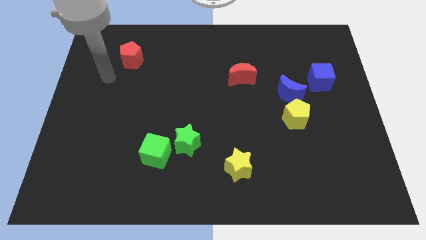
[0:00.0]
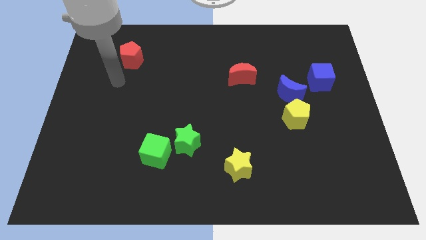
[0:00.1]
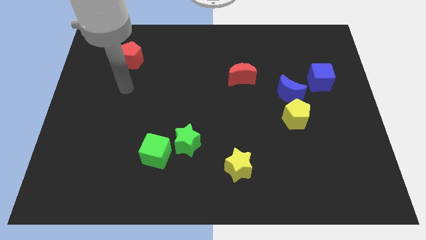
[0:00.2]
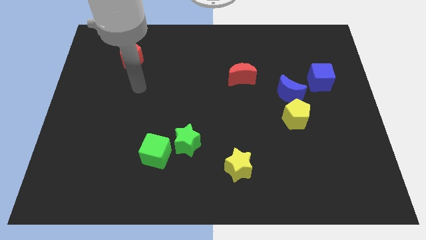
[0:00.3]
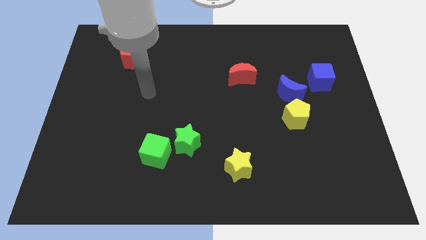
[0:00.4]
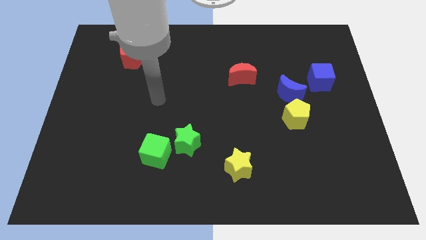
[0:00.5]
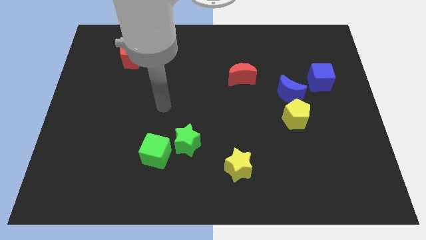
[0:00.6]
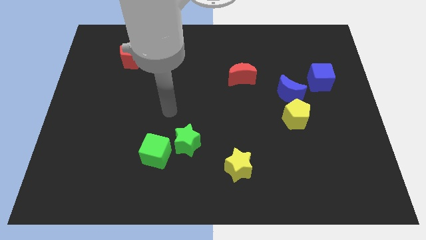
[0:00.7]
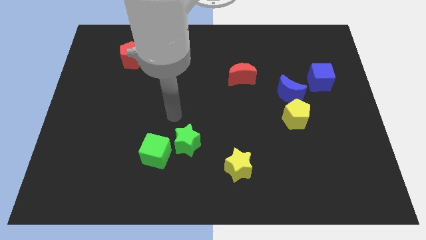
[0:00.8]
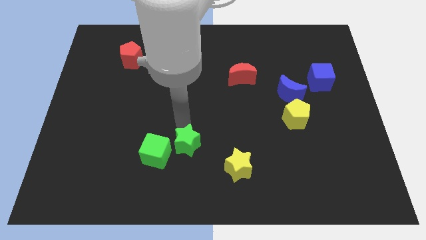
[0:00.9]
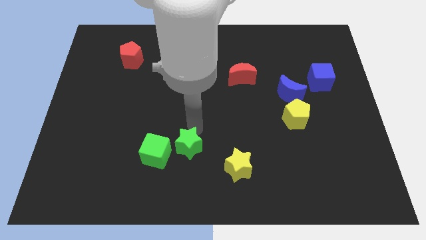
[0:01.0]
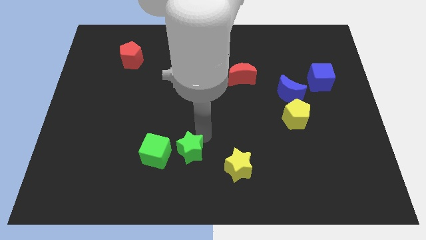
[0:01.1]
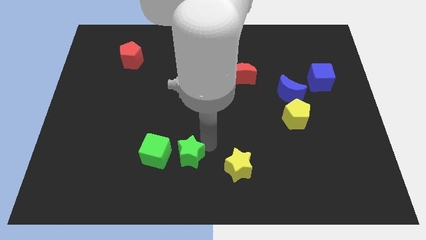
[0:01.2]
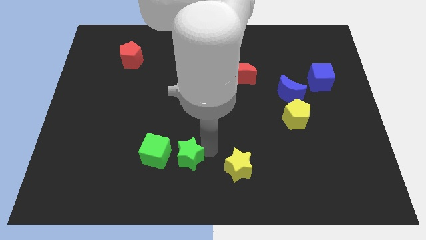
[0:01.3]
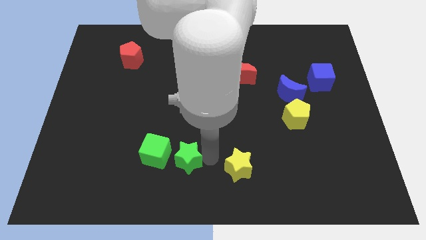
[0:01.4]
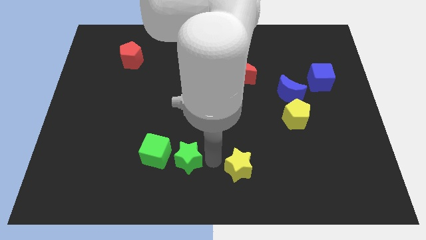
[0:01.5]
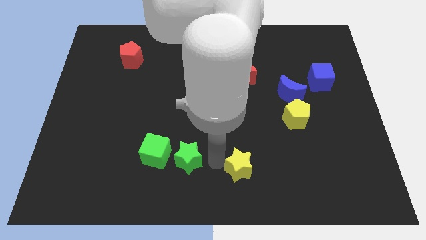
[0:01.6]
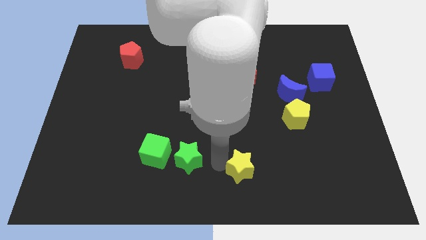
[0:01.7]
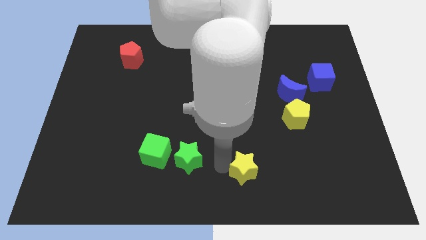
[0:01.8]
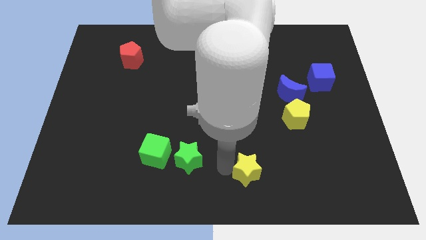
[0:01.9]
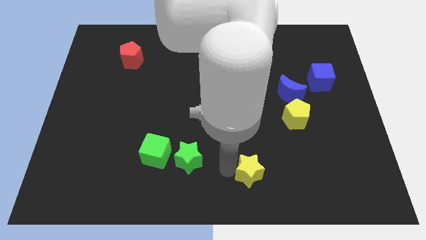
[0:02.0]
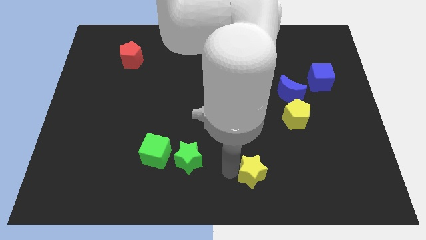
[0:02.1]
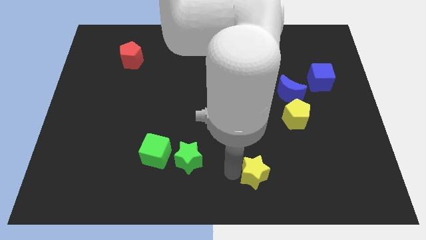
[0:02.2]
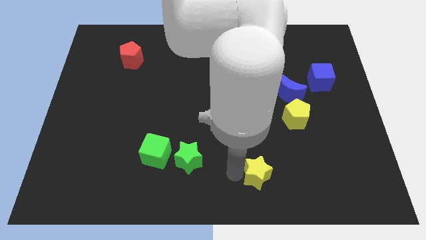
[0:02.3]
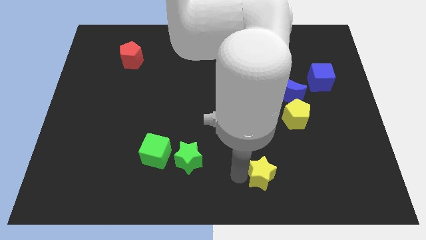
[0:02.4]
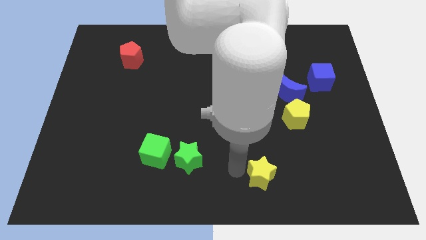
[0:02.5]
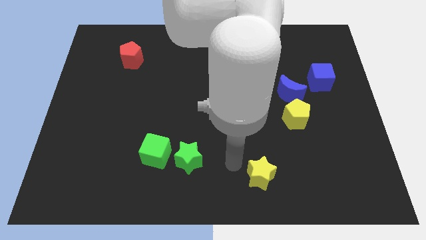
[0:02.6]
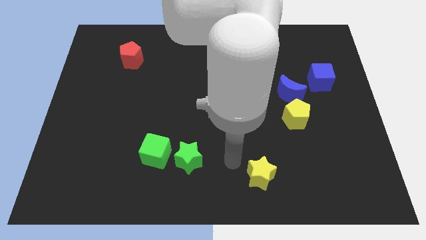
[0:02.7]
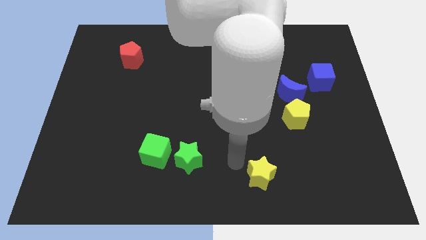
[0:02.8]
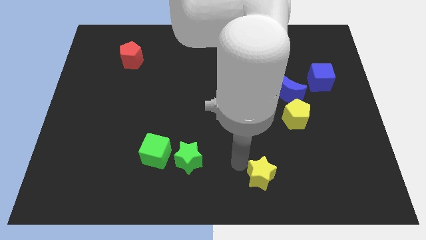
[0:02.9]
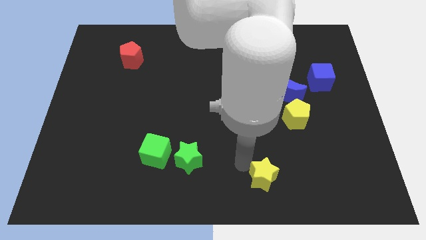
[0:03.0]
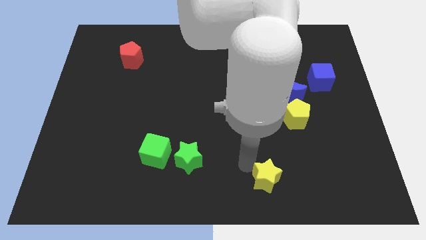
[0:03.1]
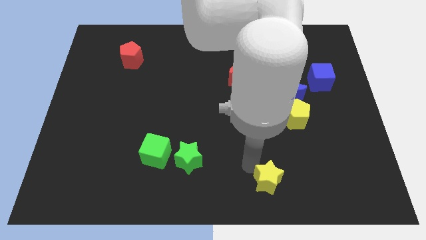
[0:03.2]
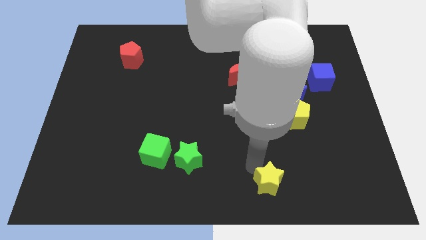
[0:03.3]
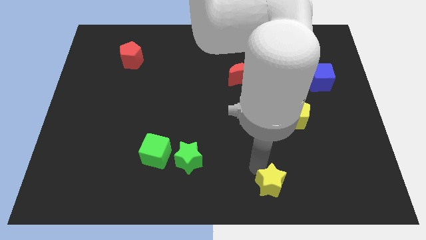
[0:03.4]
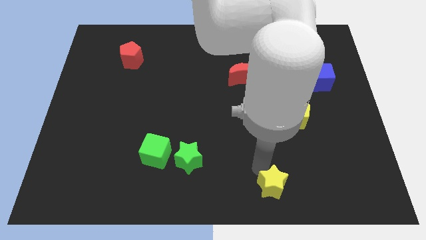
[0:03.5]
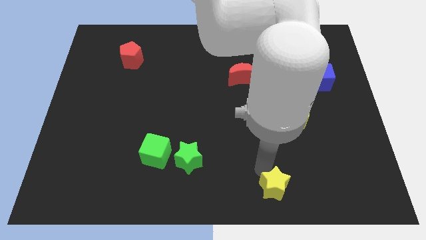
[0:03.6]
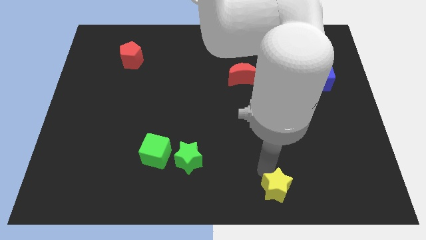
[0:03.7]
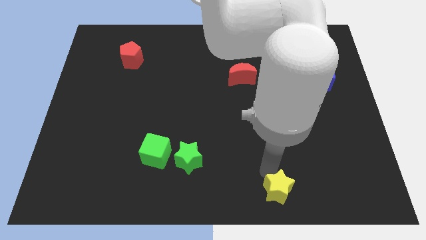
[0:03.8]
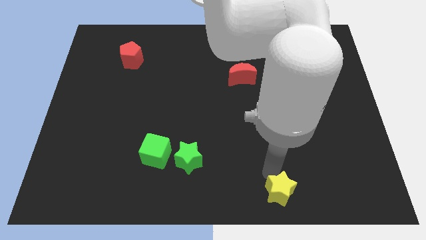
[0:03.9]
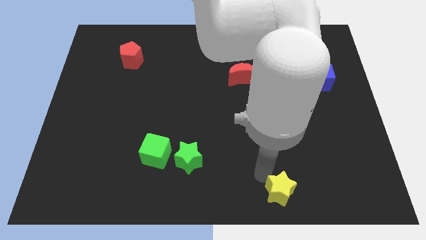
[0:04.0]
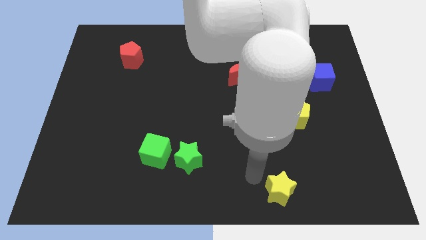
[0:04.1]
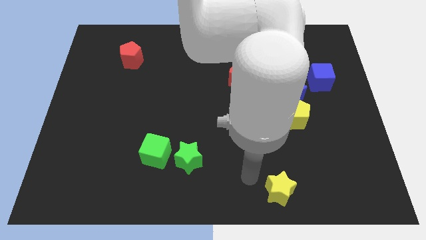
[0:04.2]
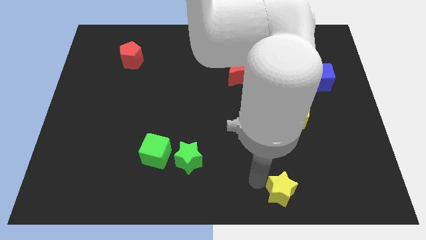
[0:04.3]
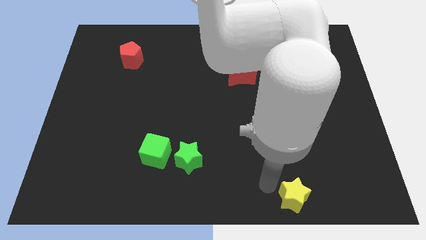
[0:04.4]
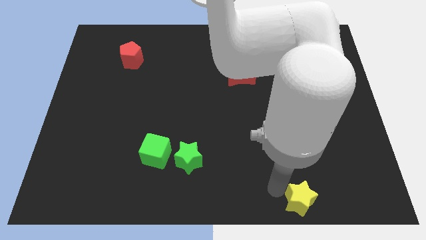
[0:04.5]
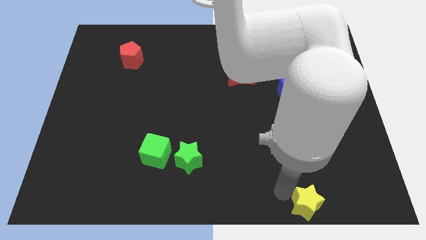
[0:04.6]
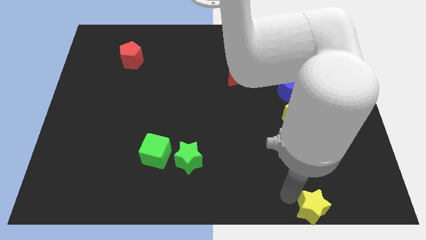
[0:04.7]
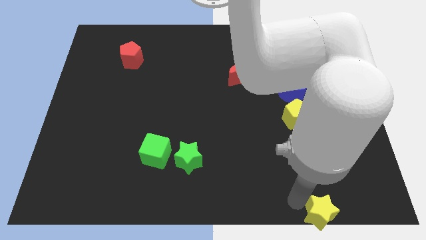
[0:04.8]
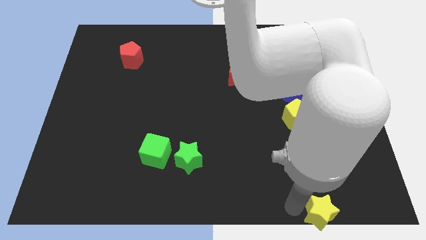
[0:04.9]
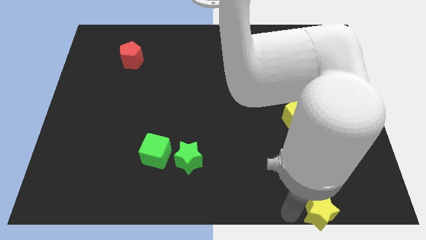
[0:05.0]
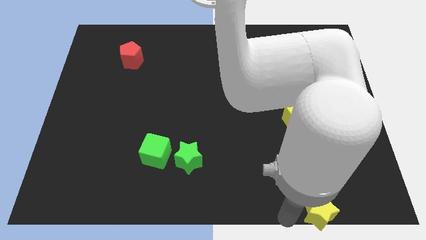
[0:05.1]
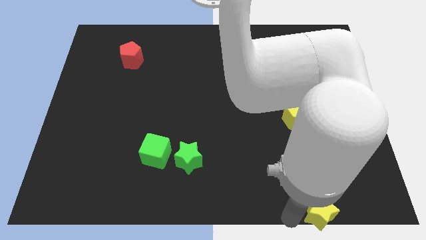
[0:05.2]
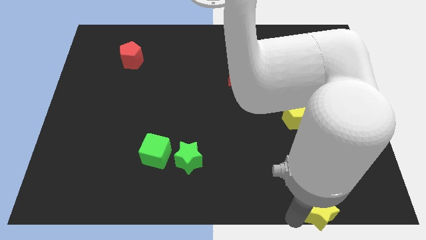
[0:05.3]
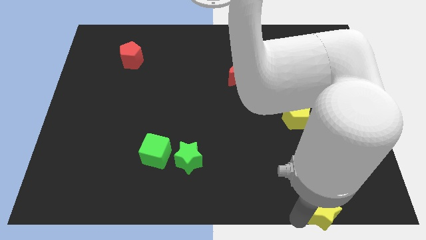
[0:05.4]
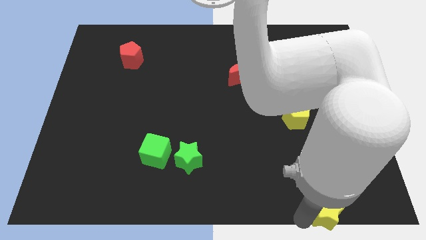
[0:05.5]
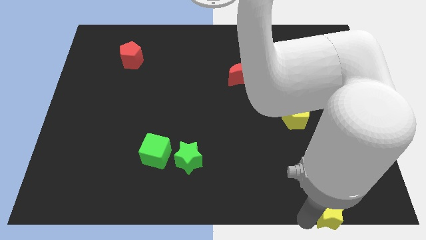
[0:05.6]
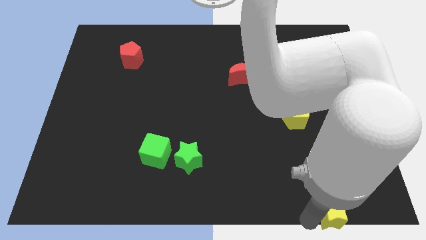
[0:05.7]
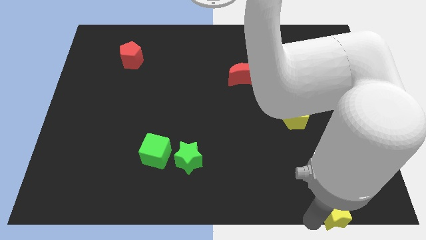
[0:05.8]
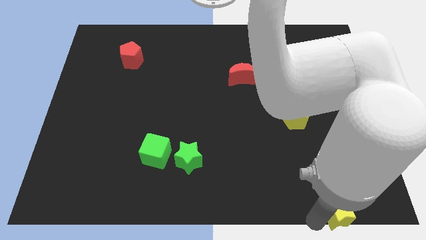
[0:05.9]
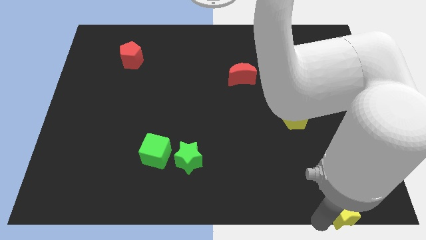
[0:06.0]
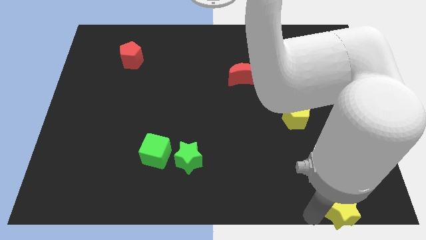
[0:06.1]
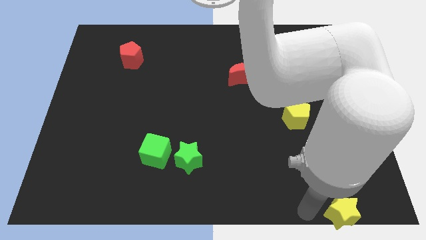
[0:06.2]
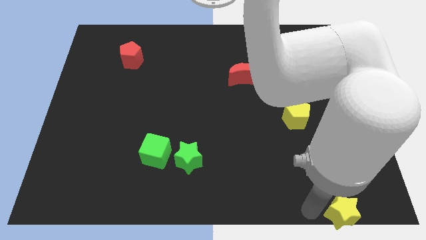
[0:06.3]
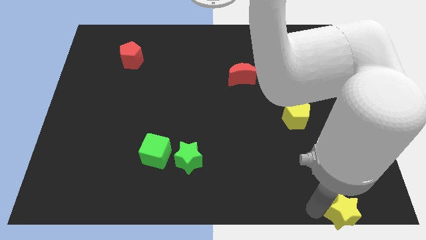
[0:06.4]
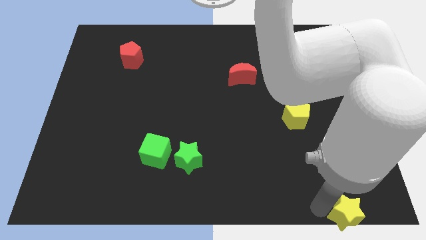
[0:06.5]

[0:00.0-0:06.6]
push the yellow star to the bottom right corner

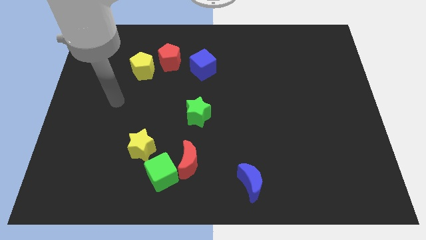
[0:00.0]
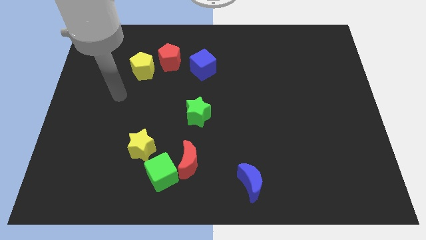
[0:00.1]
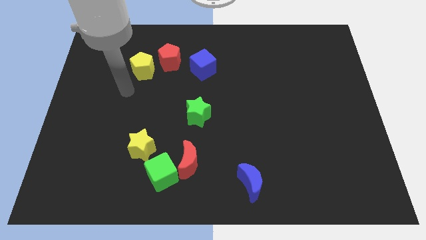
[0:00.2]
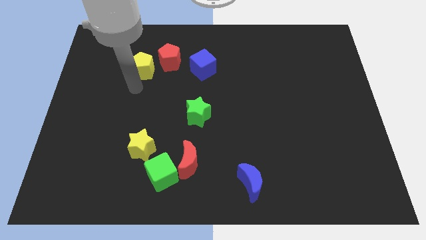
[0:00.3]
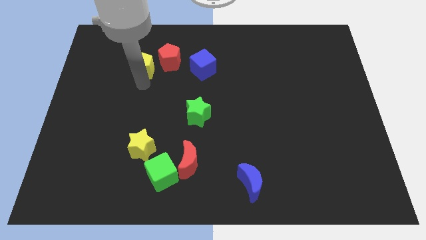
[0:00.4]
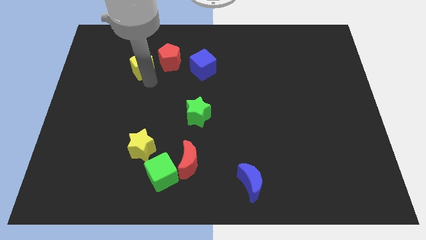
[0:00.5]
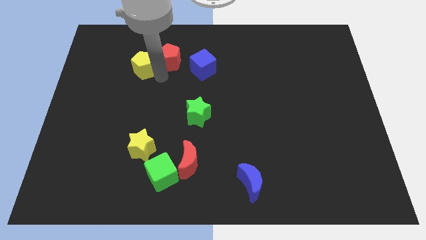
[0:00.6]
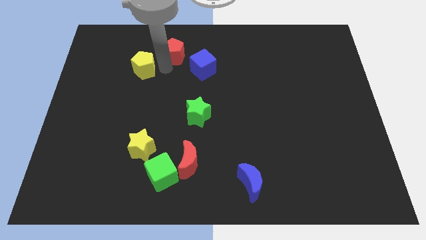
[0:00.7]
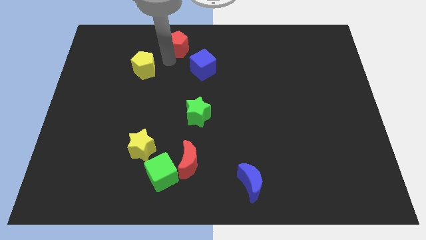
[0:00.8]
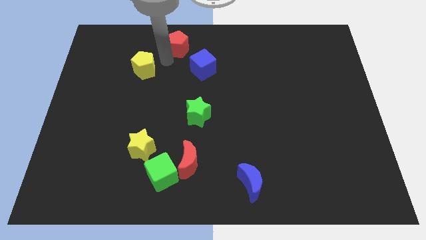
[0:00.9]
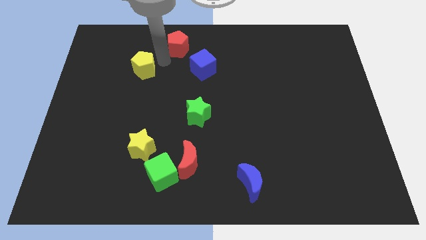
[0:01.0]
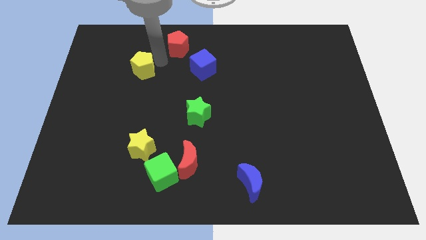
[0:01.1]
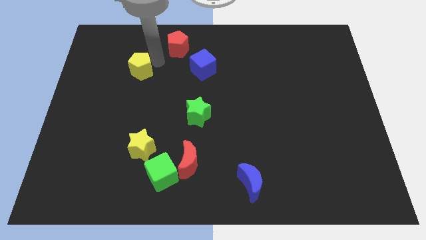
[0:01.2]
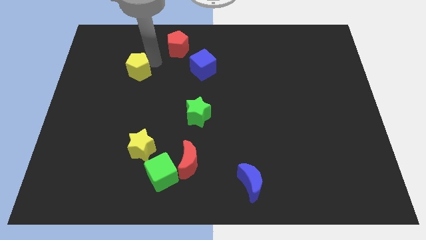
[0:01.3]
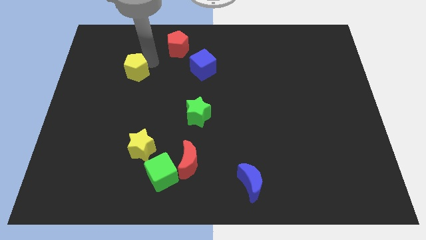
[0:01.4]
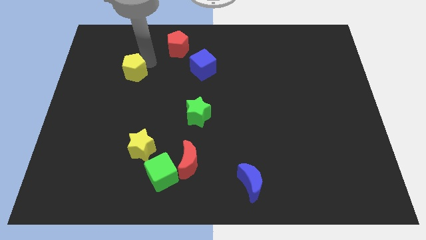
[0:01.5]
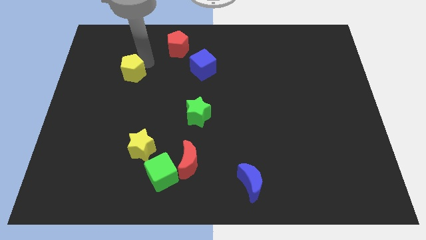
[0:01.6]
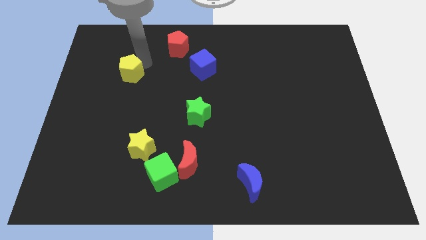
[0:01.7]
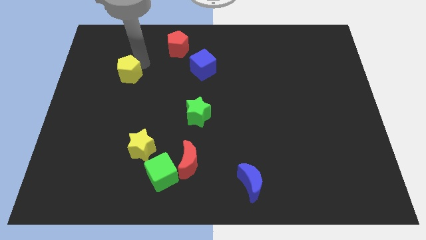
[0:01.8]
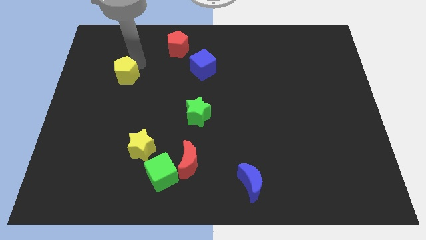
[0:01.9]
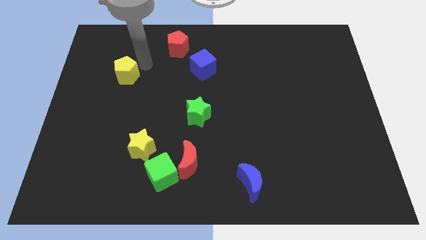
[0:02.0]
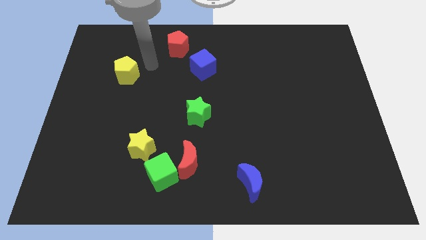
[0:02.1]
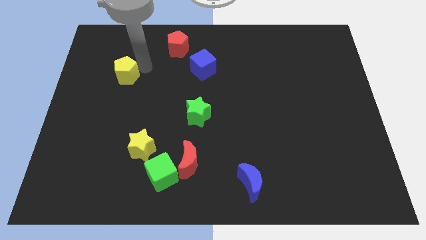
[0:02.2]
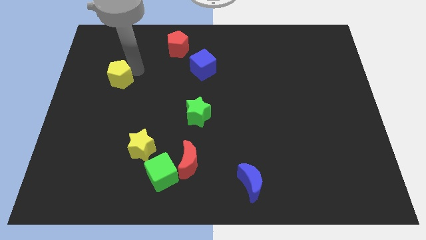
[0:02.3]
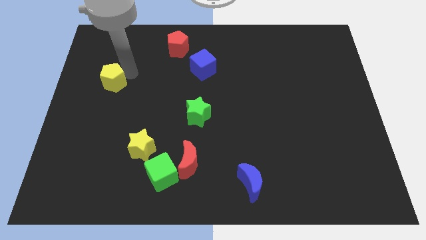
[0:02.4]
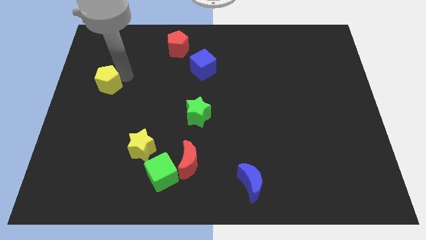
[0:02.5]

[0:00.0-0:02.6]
move the yellow pentagon to the left side of the board
